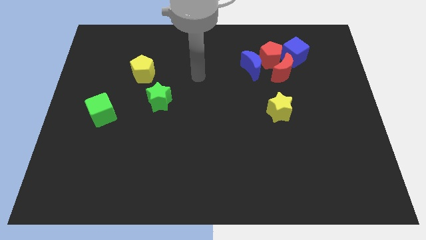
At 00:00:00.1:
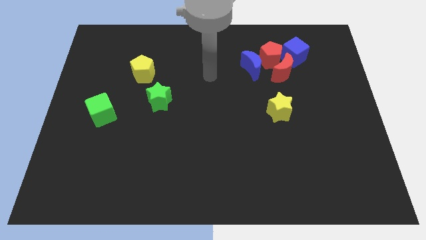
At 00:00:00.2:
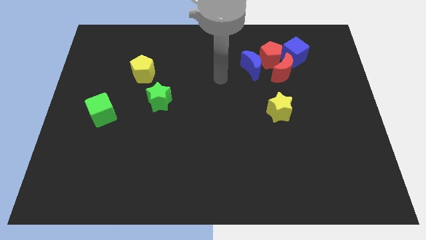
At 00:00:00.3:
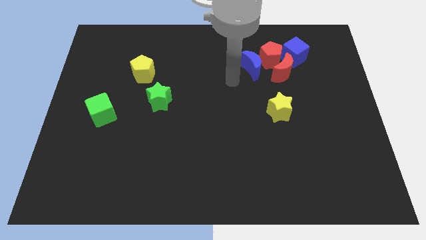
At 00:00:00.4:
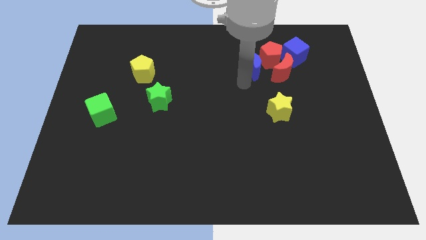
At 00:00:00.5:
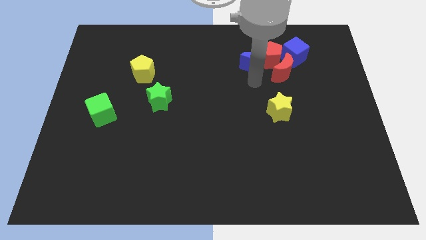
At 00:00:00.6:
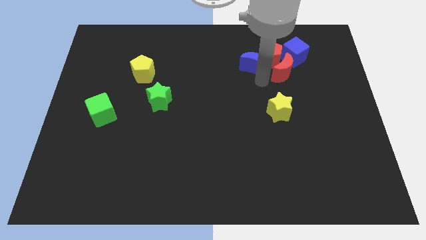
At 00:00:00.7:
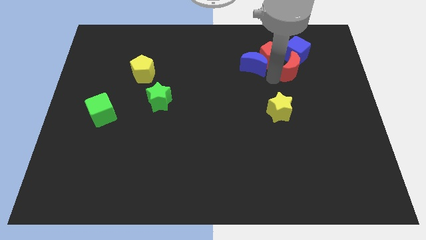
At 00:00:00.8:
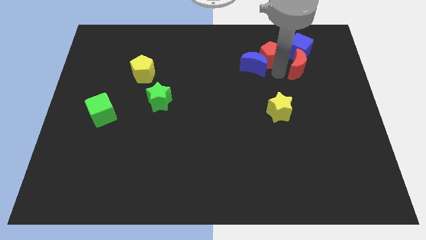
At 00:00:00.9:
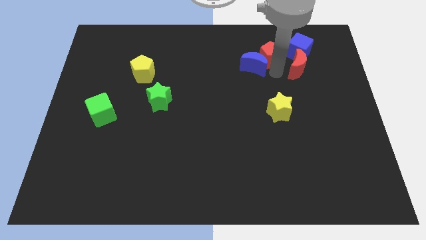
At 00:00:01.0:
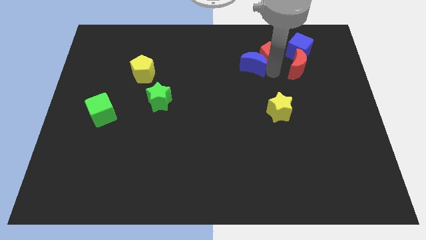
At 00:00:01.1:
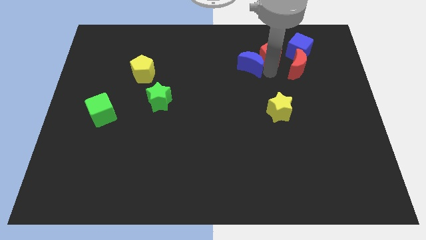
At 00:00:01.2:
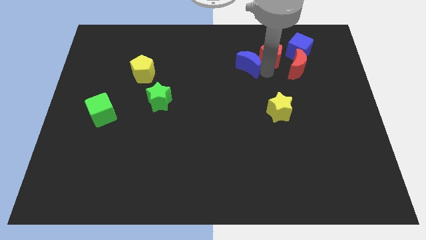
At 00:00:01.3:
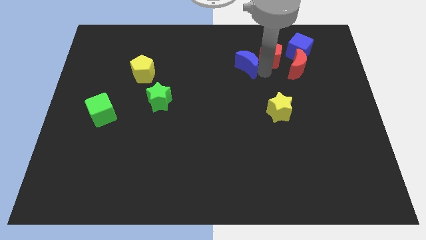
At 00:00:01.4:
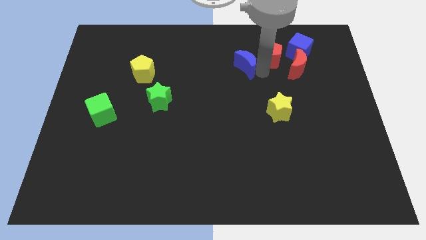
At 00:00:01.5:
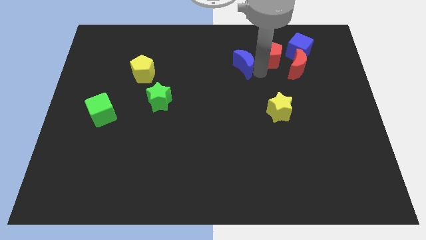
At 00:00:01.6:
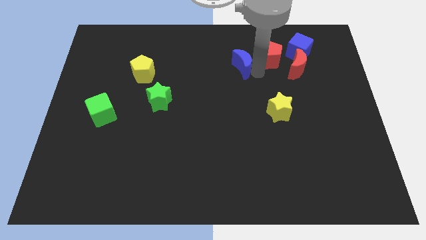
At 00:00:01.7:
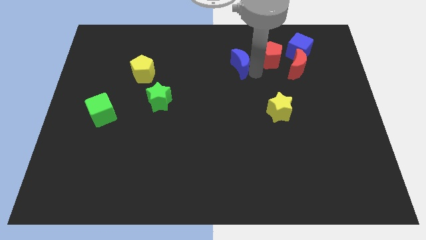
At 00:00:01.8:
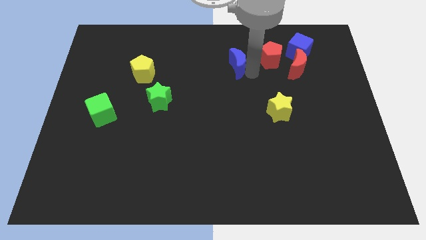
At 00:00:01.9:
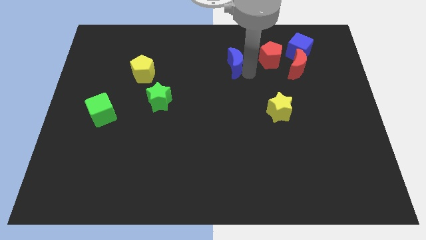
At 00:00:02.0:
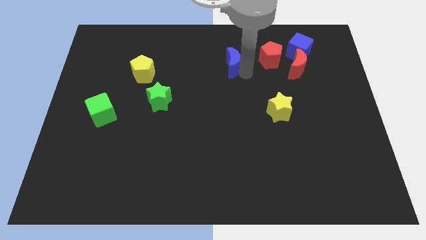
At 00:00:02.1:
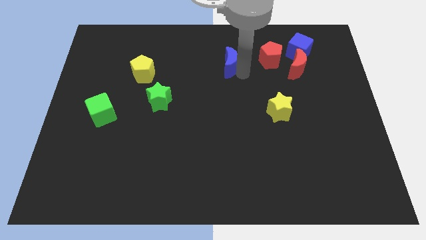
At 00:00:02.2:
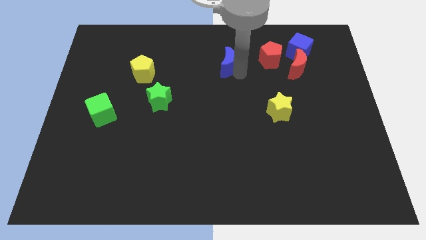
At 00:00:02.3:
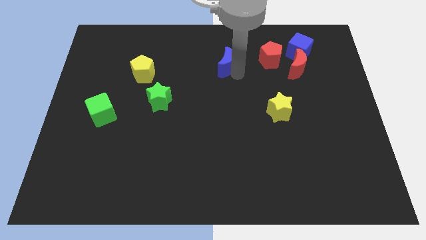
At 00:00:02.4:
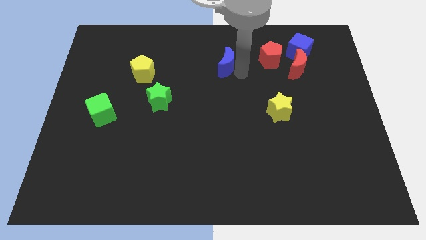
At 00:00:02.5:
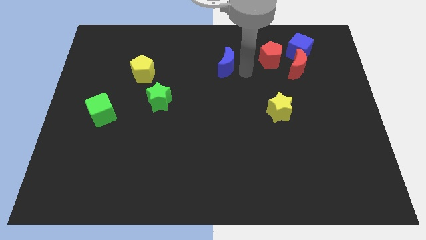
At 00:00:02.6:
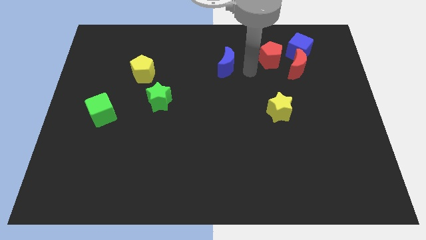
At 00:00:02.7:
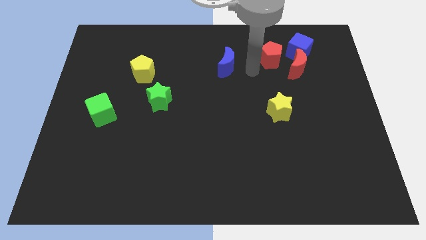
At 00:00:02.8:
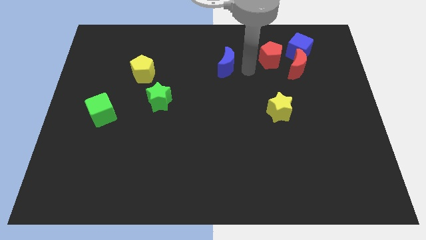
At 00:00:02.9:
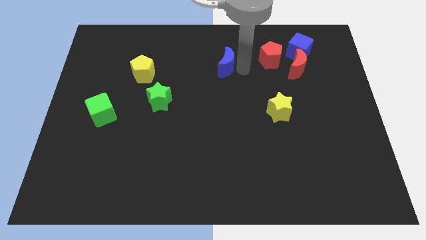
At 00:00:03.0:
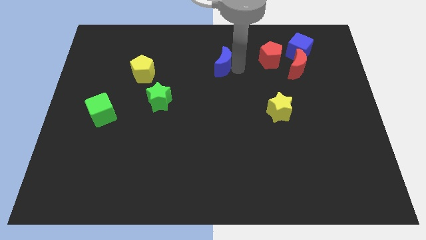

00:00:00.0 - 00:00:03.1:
slide the blue moon slightly to the left

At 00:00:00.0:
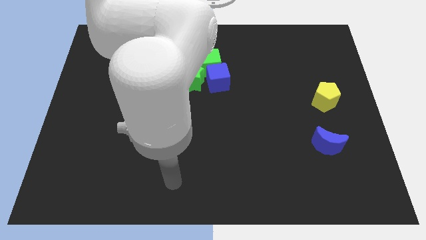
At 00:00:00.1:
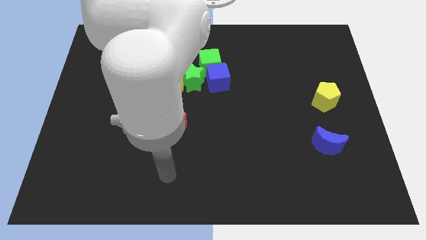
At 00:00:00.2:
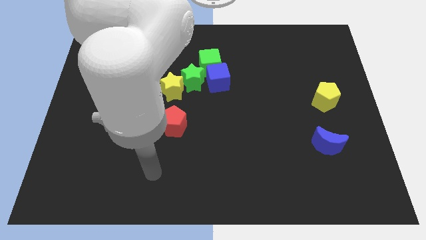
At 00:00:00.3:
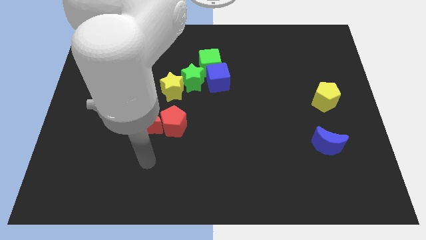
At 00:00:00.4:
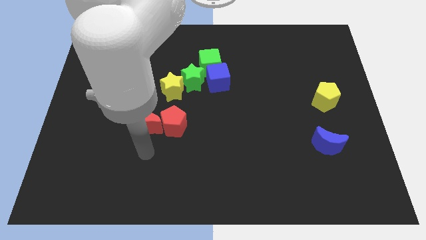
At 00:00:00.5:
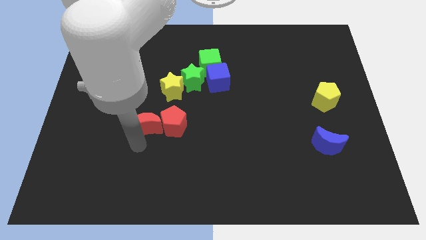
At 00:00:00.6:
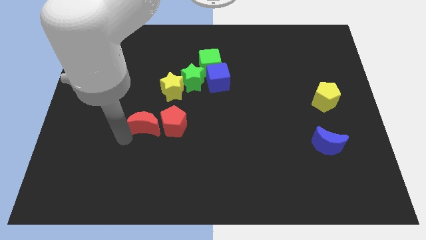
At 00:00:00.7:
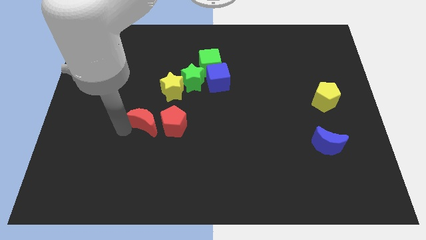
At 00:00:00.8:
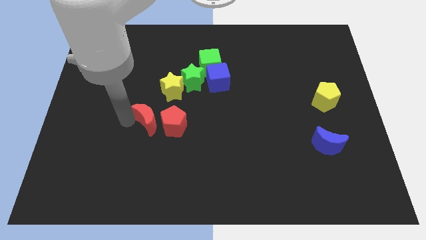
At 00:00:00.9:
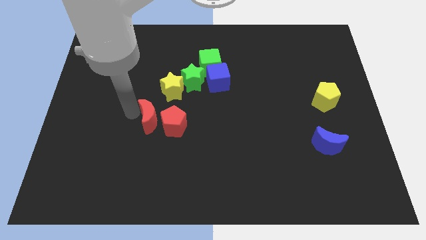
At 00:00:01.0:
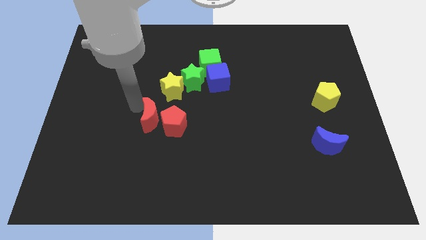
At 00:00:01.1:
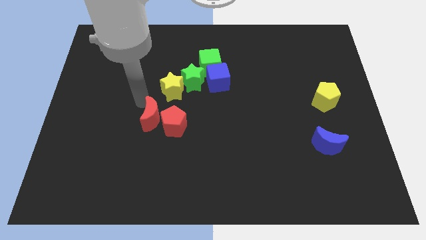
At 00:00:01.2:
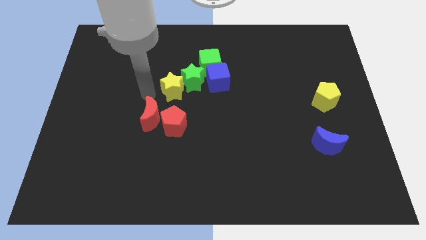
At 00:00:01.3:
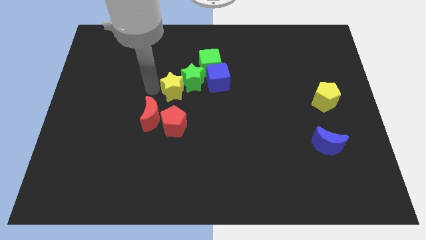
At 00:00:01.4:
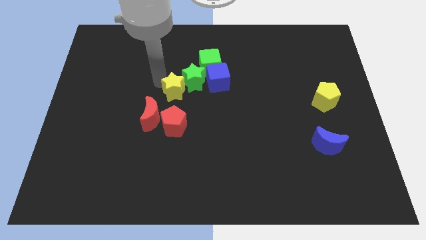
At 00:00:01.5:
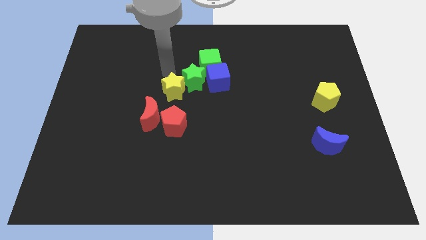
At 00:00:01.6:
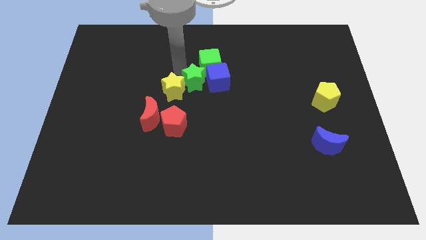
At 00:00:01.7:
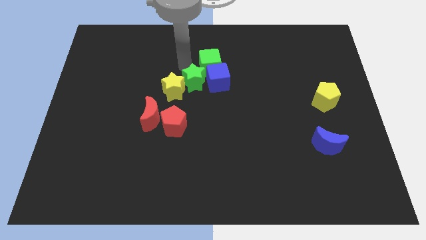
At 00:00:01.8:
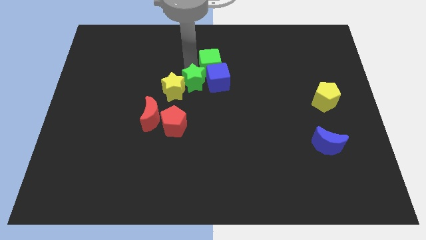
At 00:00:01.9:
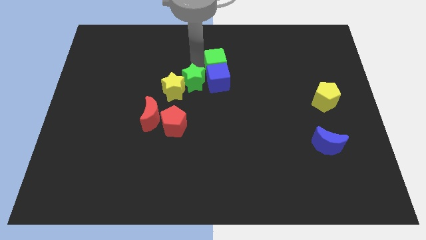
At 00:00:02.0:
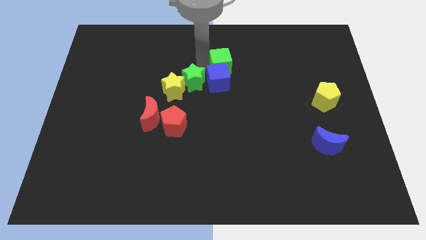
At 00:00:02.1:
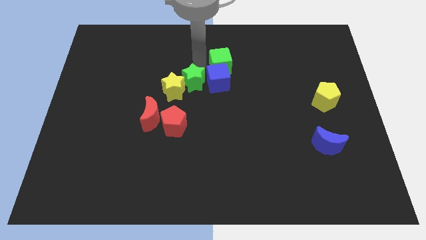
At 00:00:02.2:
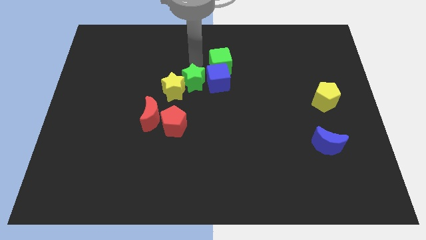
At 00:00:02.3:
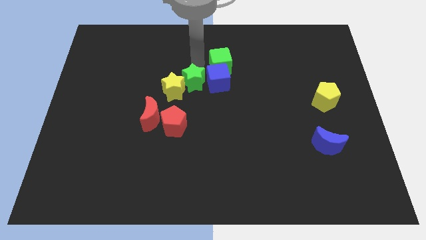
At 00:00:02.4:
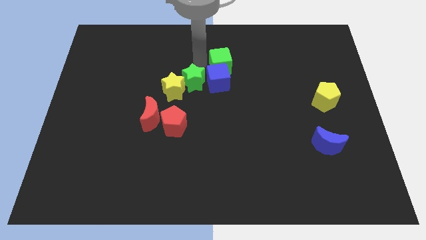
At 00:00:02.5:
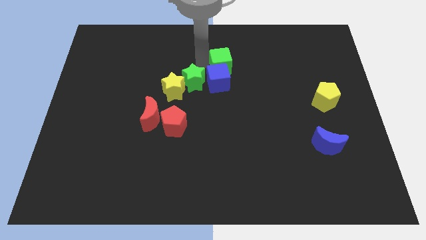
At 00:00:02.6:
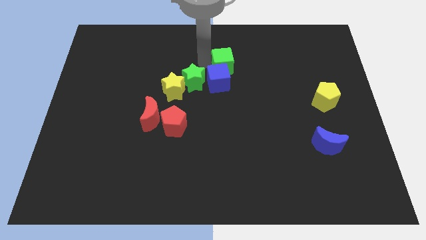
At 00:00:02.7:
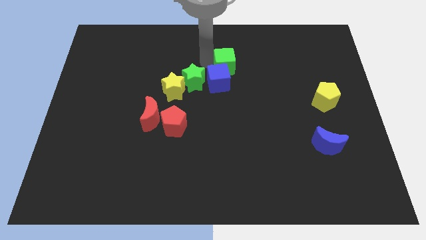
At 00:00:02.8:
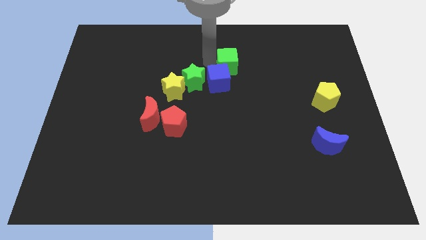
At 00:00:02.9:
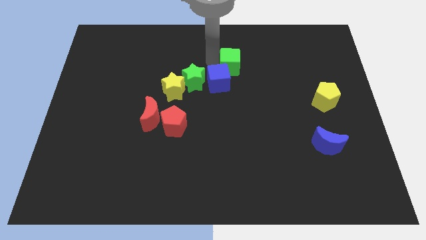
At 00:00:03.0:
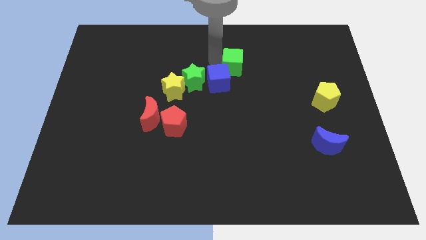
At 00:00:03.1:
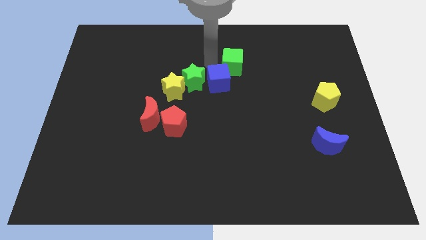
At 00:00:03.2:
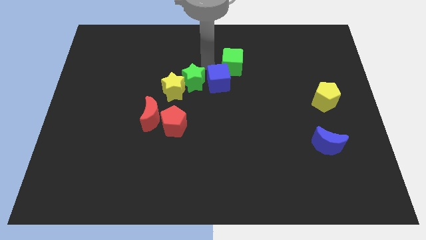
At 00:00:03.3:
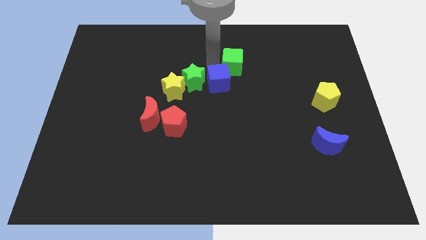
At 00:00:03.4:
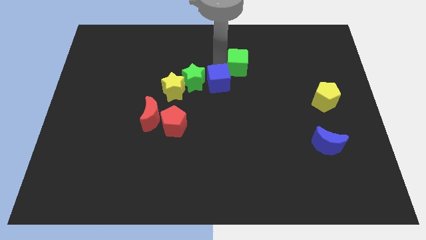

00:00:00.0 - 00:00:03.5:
slide the green cube to the right a little

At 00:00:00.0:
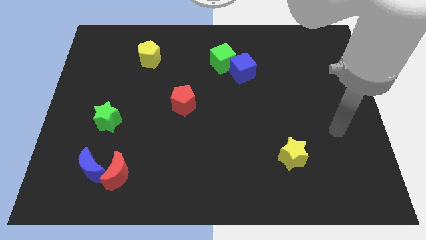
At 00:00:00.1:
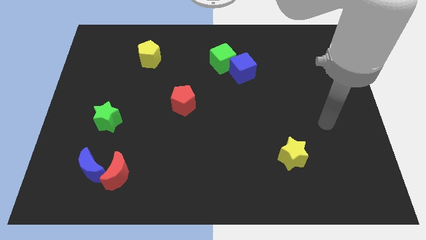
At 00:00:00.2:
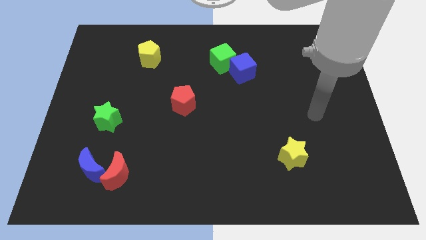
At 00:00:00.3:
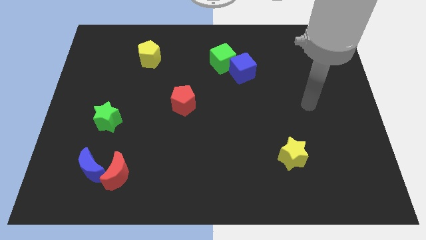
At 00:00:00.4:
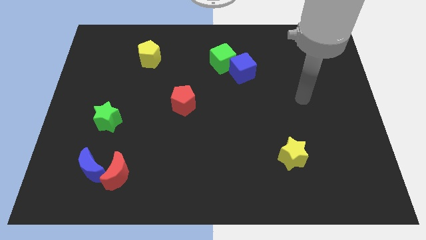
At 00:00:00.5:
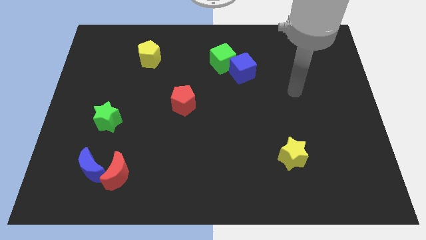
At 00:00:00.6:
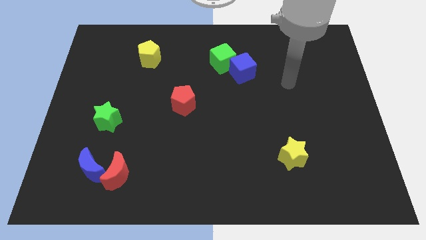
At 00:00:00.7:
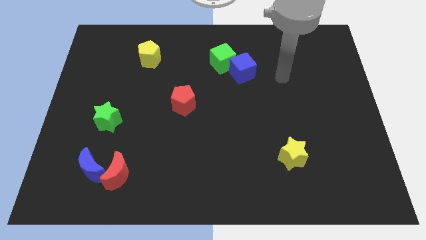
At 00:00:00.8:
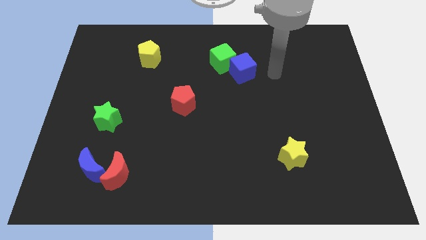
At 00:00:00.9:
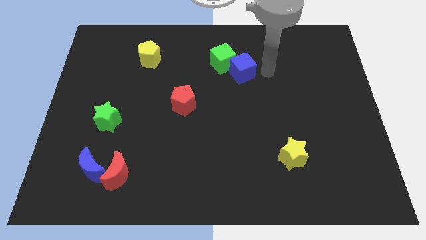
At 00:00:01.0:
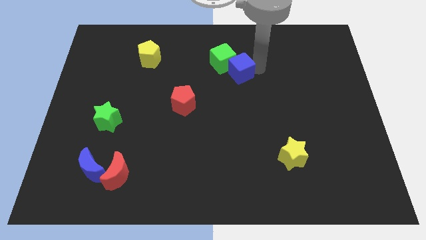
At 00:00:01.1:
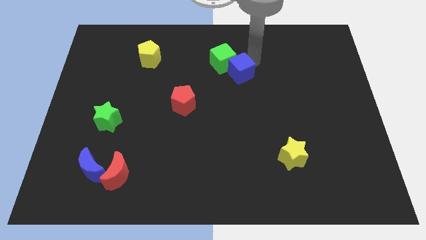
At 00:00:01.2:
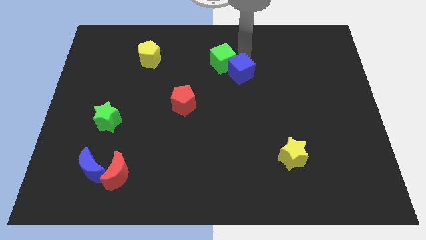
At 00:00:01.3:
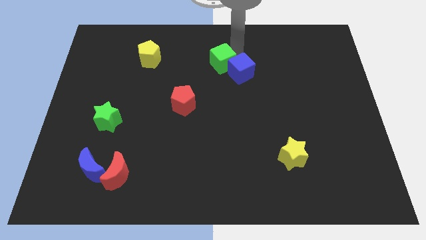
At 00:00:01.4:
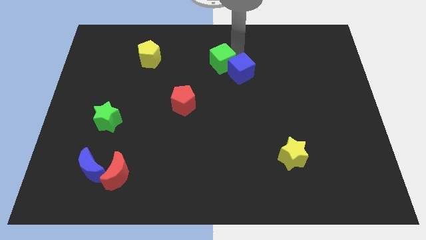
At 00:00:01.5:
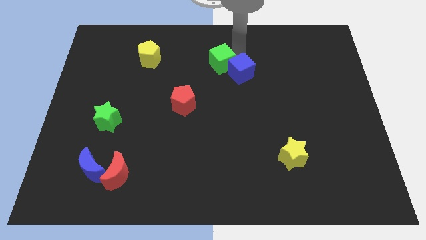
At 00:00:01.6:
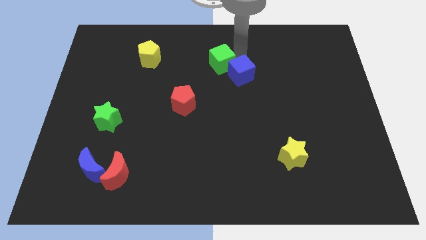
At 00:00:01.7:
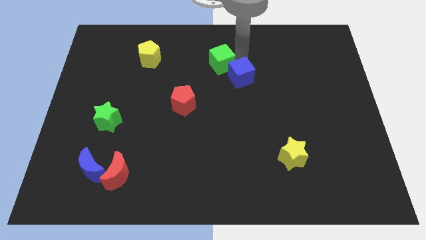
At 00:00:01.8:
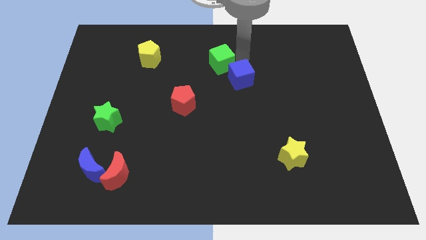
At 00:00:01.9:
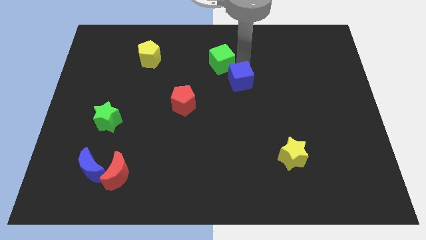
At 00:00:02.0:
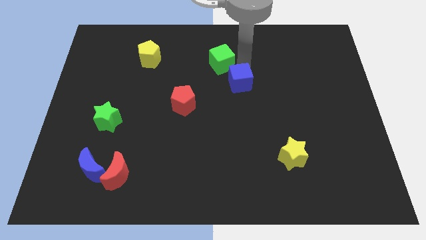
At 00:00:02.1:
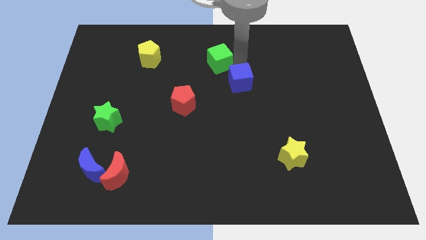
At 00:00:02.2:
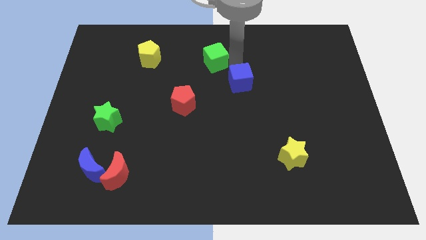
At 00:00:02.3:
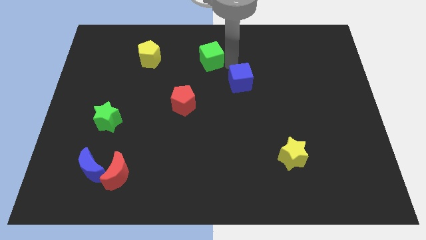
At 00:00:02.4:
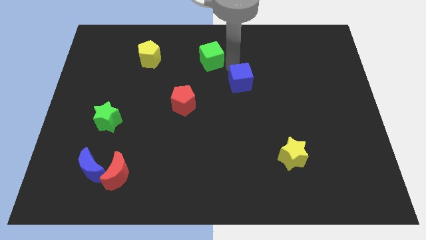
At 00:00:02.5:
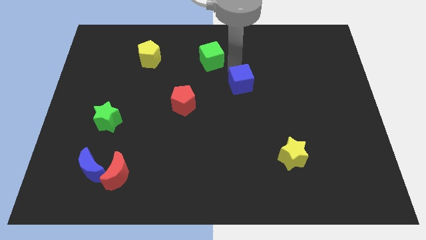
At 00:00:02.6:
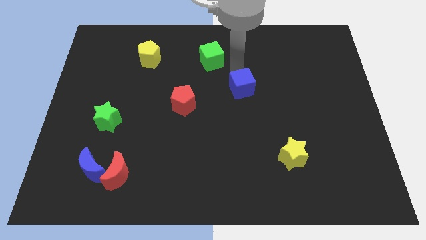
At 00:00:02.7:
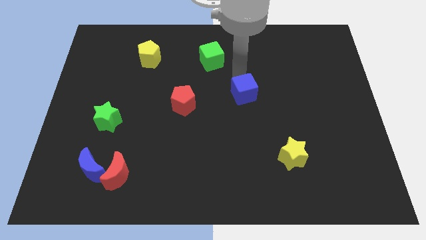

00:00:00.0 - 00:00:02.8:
slightly move the blue cube downwards
